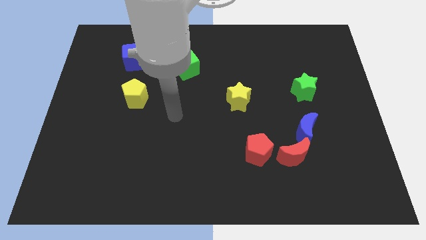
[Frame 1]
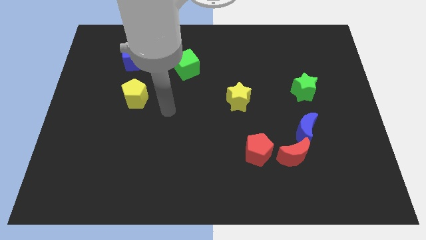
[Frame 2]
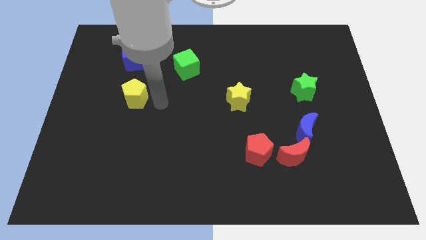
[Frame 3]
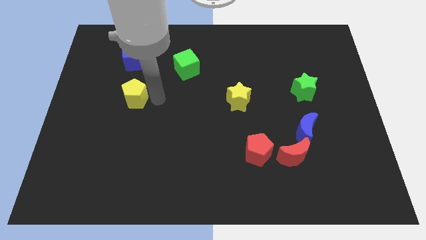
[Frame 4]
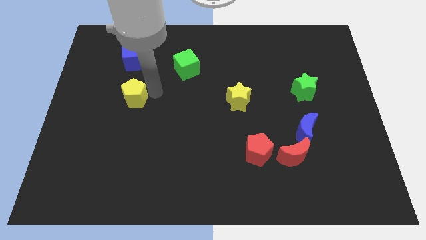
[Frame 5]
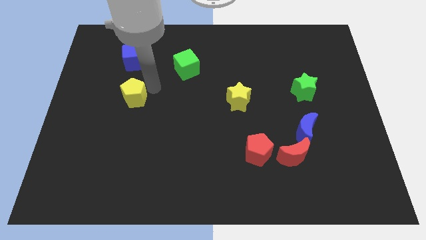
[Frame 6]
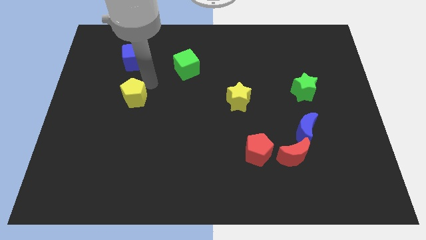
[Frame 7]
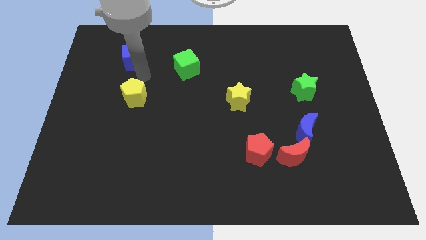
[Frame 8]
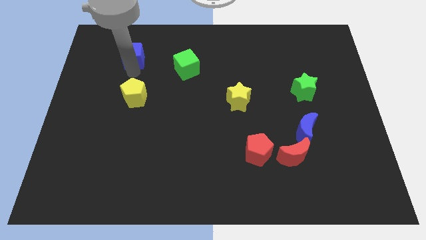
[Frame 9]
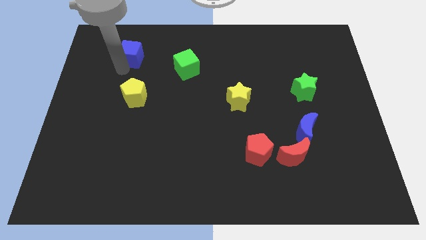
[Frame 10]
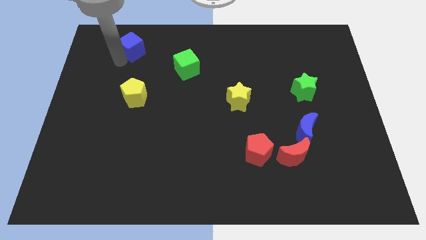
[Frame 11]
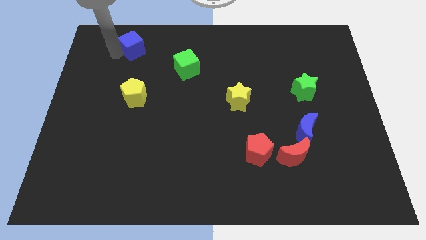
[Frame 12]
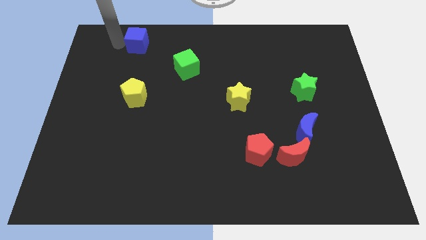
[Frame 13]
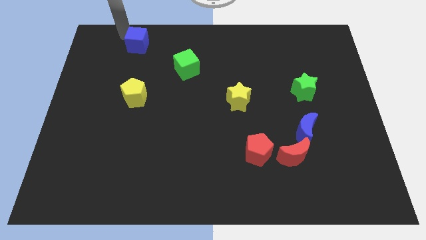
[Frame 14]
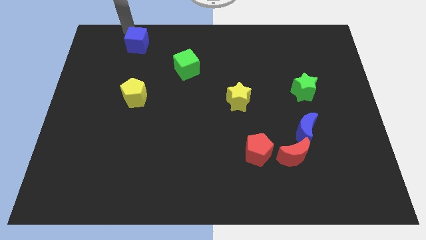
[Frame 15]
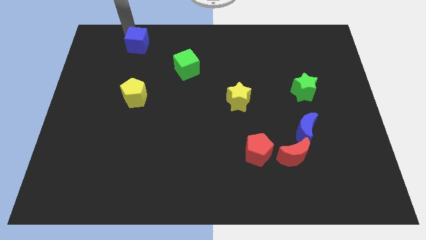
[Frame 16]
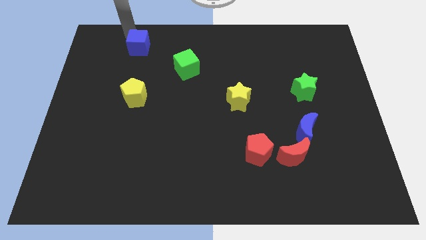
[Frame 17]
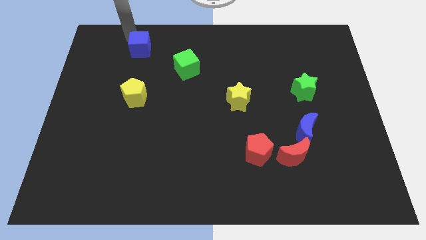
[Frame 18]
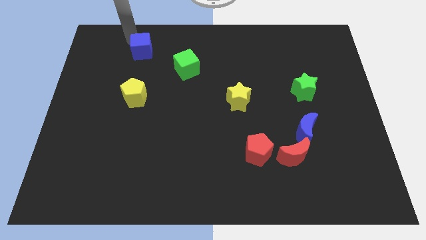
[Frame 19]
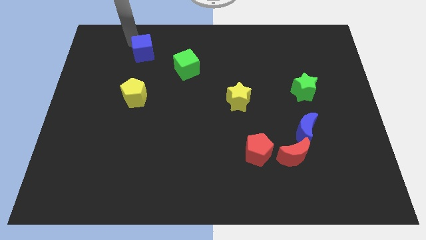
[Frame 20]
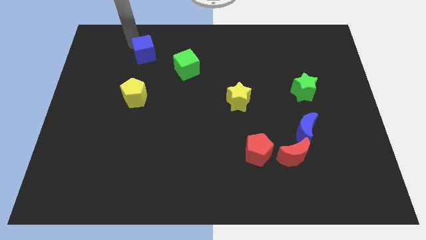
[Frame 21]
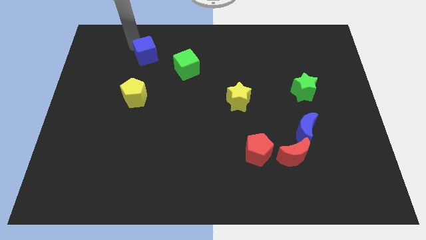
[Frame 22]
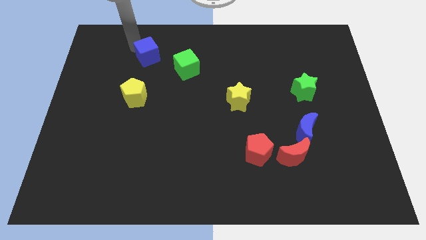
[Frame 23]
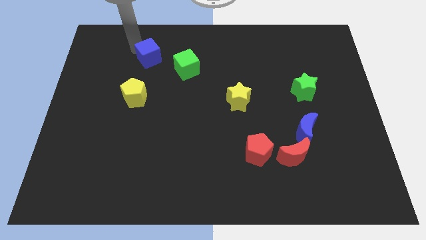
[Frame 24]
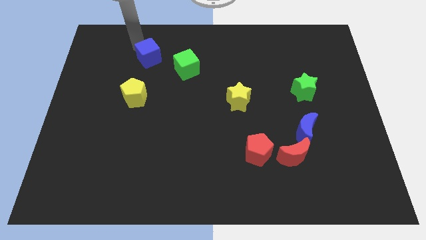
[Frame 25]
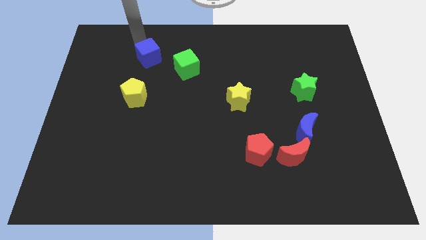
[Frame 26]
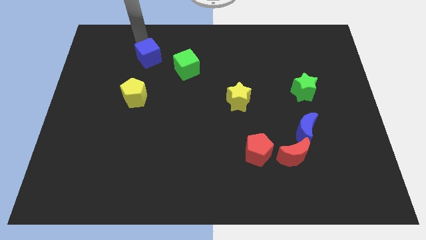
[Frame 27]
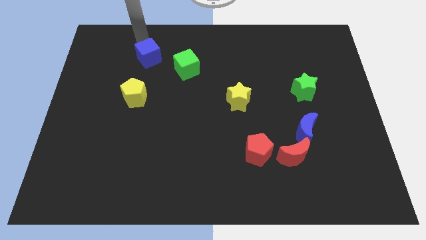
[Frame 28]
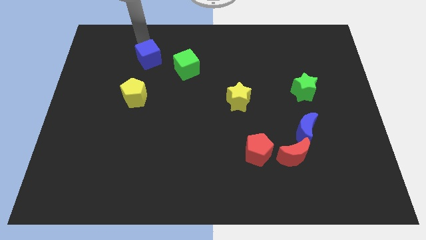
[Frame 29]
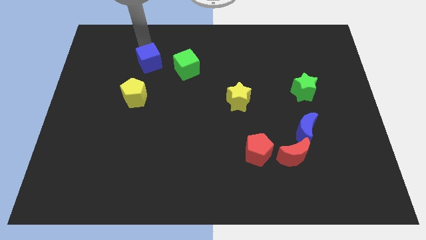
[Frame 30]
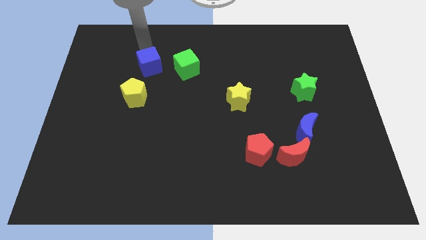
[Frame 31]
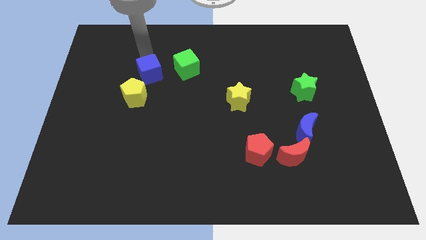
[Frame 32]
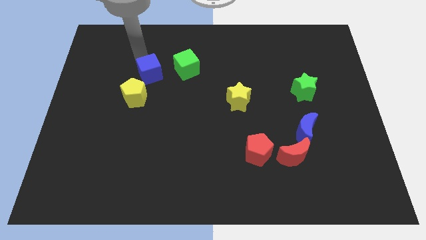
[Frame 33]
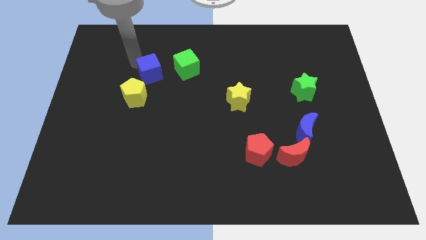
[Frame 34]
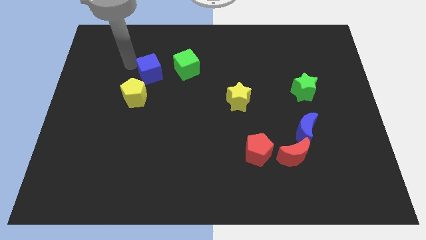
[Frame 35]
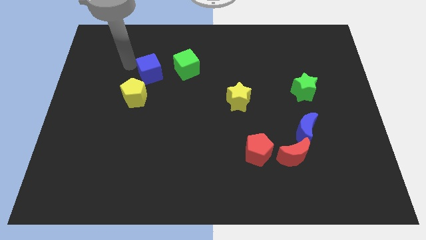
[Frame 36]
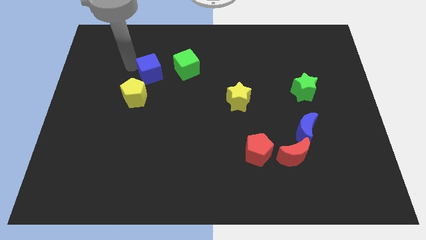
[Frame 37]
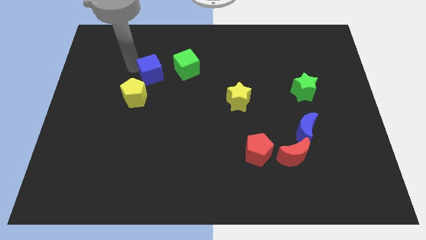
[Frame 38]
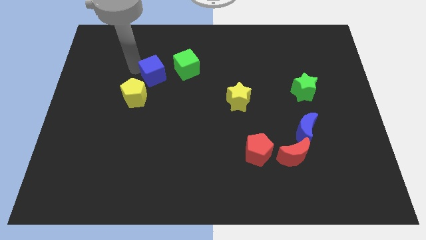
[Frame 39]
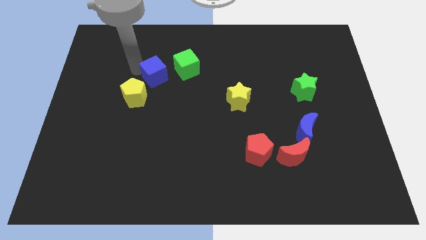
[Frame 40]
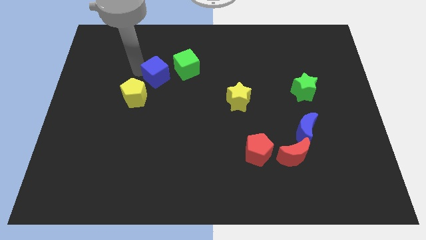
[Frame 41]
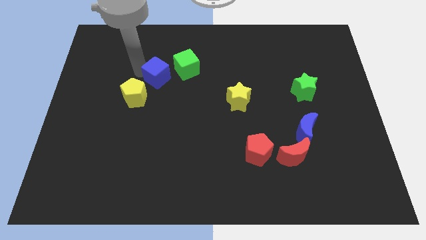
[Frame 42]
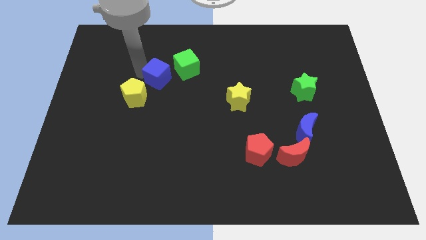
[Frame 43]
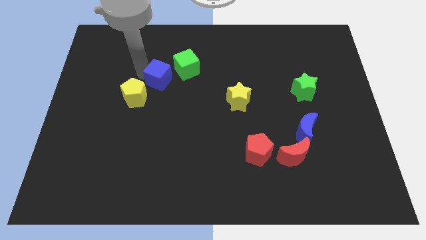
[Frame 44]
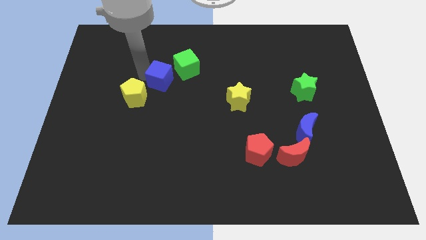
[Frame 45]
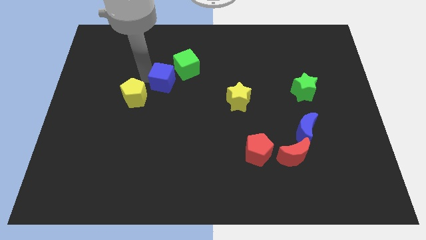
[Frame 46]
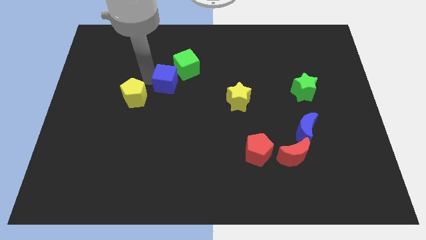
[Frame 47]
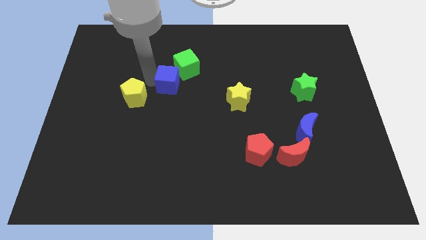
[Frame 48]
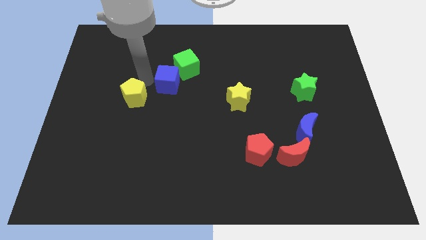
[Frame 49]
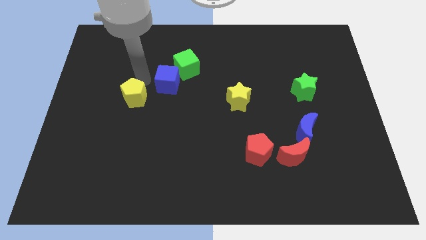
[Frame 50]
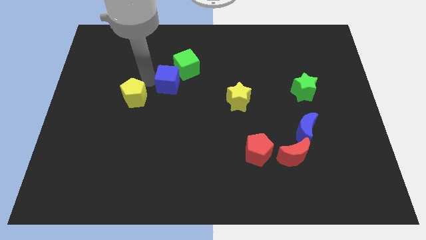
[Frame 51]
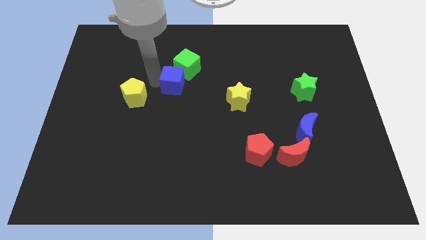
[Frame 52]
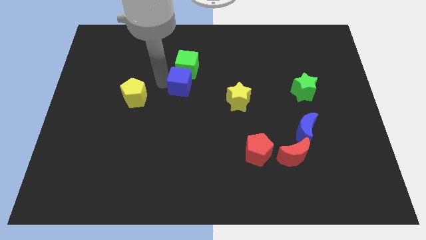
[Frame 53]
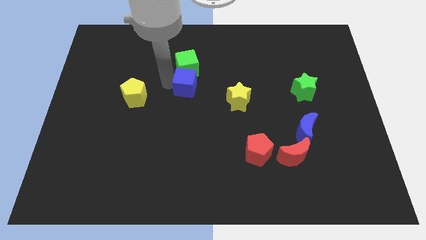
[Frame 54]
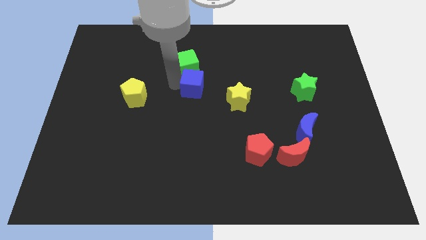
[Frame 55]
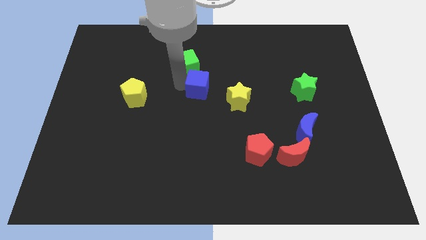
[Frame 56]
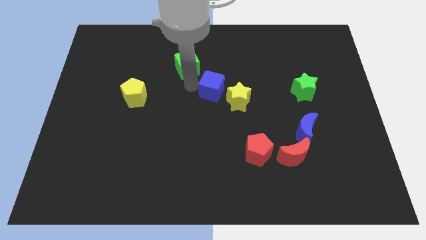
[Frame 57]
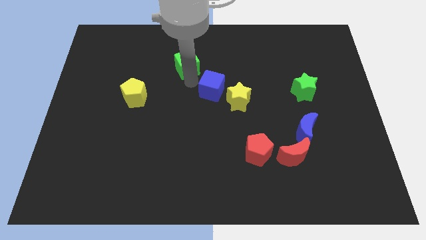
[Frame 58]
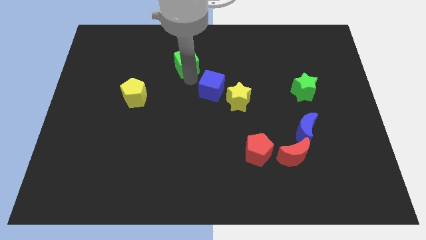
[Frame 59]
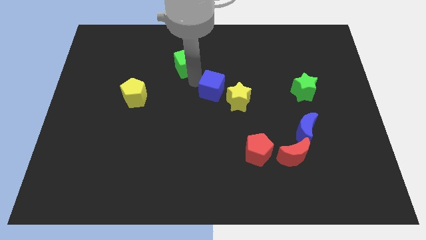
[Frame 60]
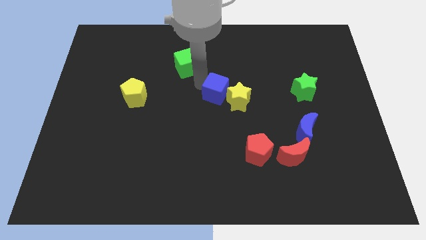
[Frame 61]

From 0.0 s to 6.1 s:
put the blue cube to the yellow star

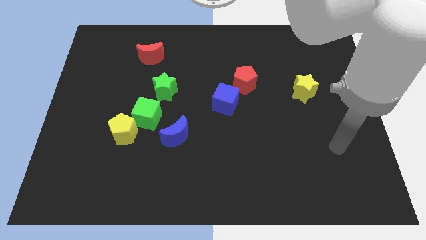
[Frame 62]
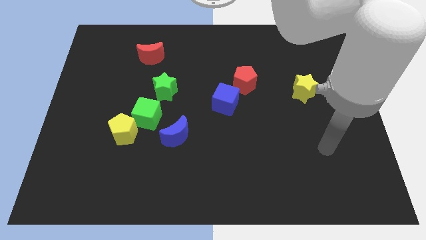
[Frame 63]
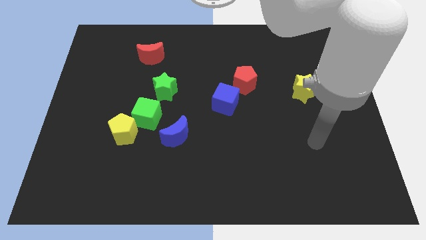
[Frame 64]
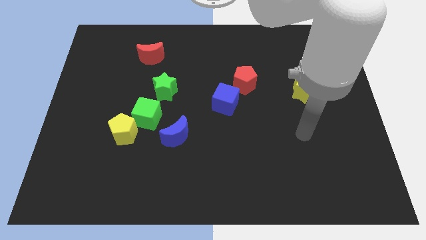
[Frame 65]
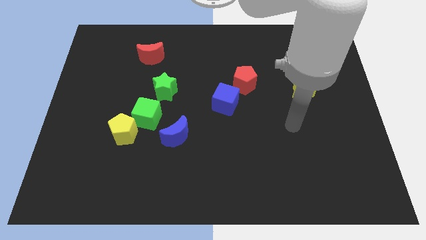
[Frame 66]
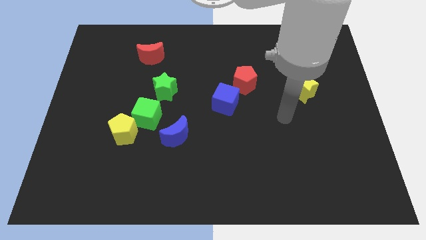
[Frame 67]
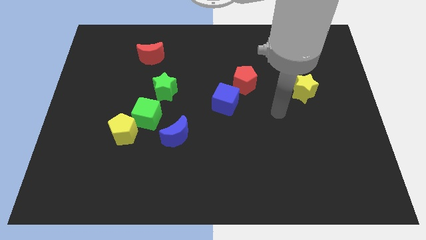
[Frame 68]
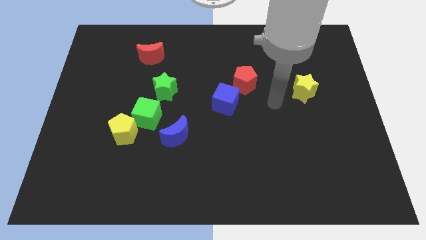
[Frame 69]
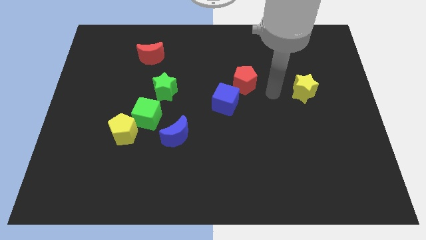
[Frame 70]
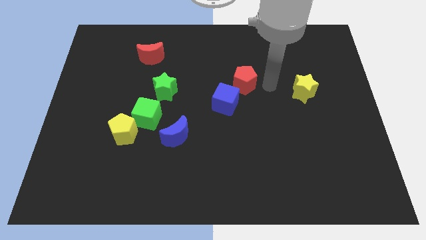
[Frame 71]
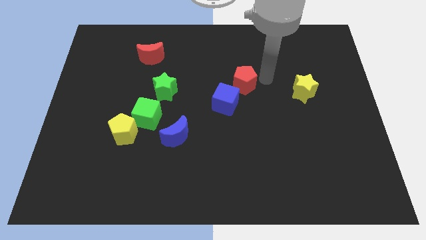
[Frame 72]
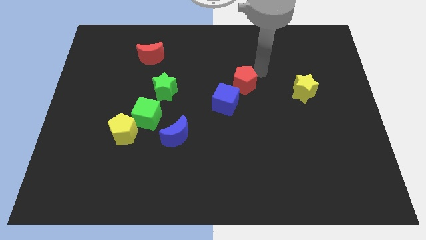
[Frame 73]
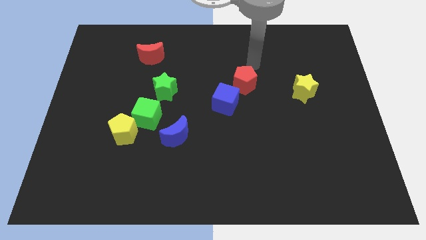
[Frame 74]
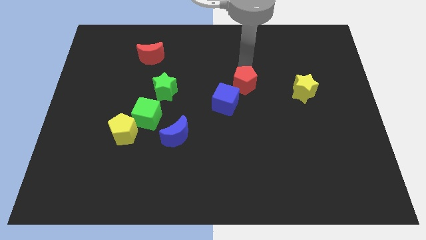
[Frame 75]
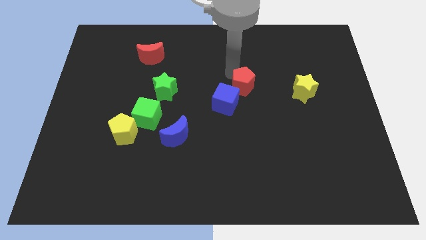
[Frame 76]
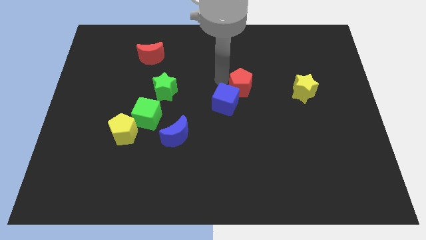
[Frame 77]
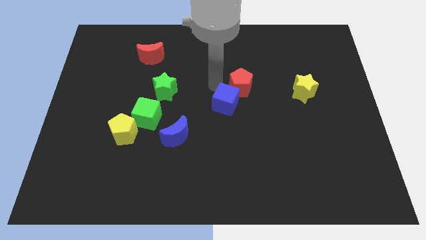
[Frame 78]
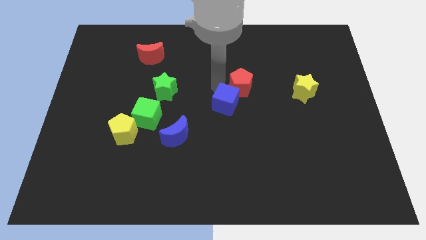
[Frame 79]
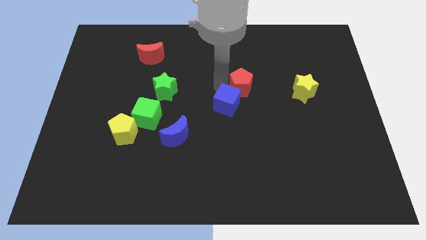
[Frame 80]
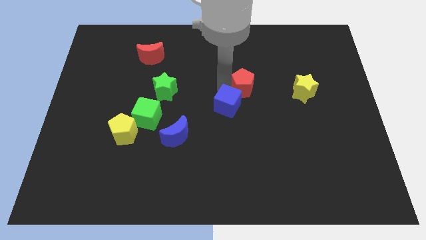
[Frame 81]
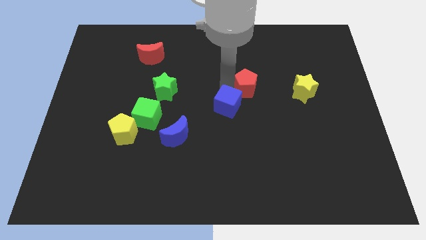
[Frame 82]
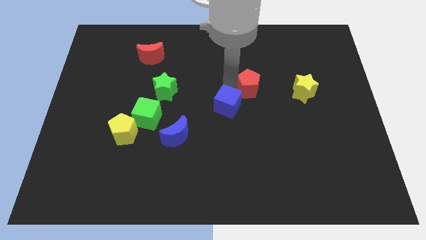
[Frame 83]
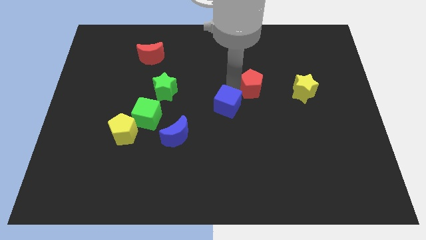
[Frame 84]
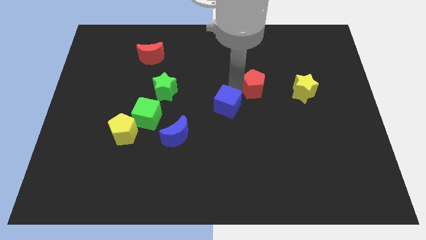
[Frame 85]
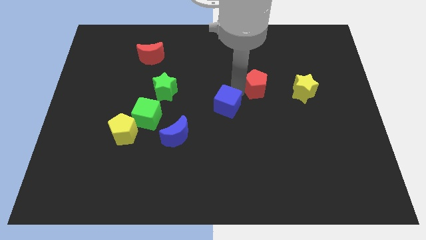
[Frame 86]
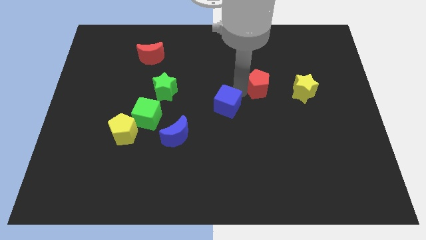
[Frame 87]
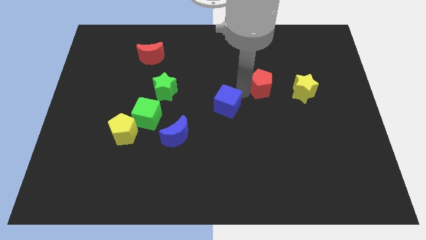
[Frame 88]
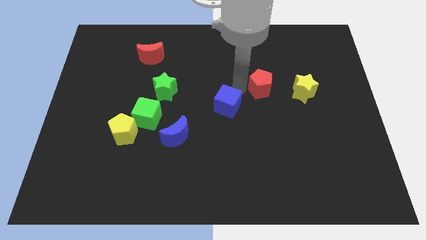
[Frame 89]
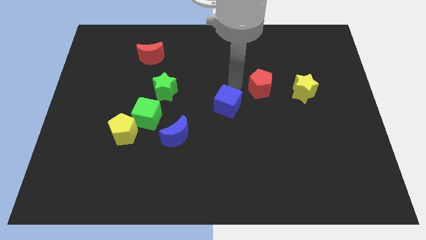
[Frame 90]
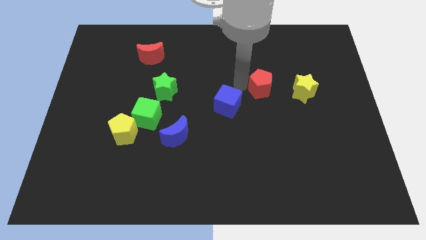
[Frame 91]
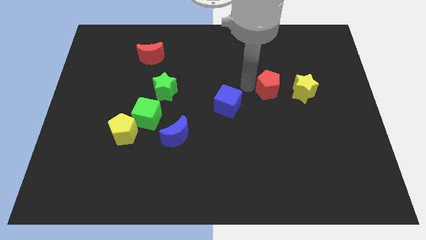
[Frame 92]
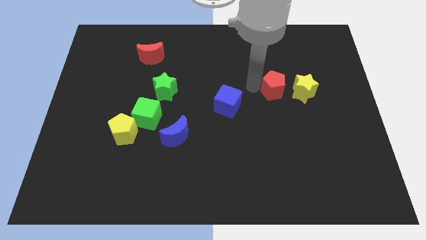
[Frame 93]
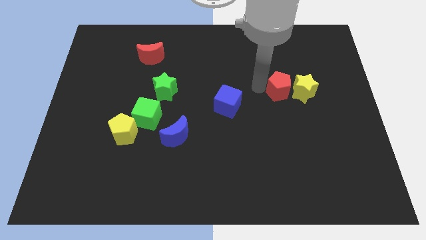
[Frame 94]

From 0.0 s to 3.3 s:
push the red pentagon towards the yellow star
